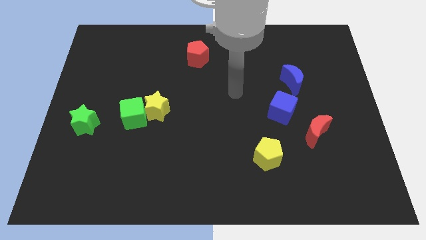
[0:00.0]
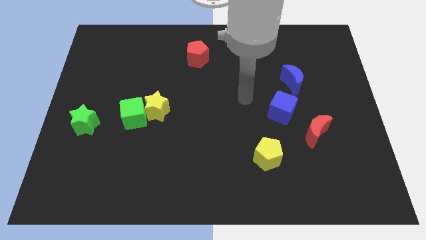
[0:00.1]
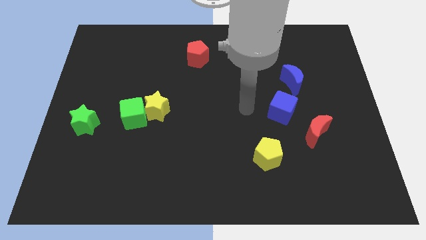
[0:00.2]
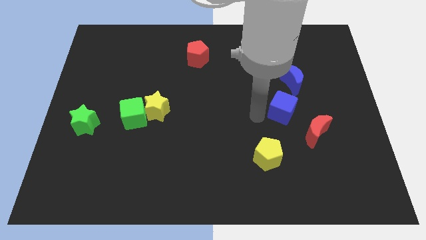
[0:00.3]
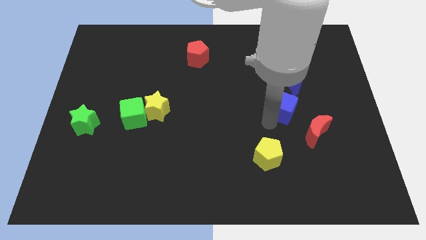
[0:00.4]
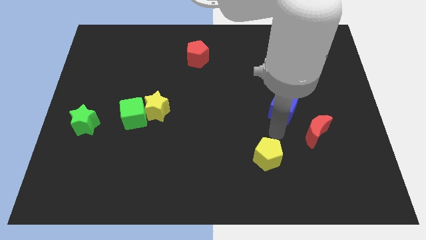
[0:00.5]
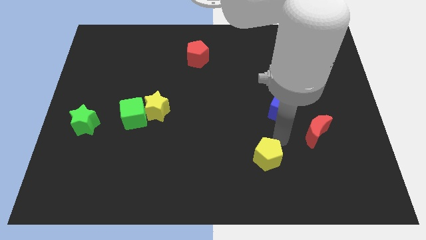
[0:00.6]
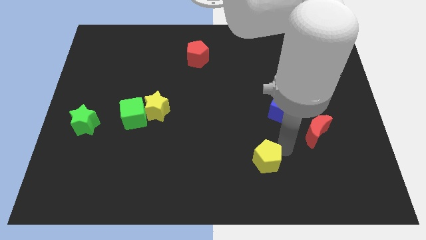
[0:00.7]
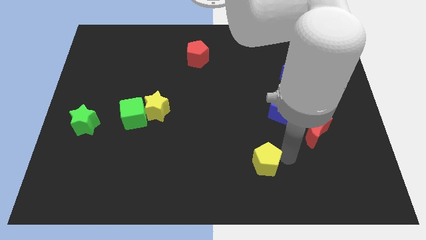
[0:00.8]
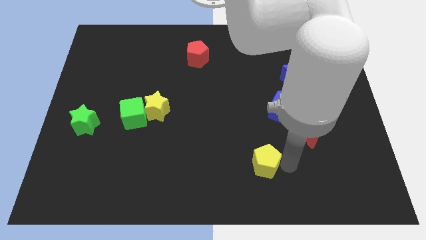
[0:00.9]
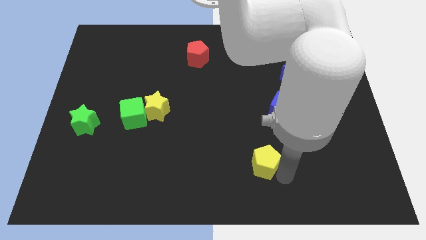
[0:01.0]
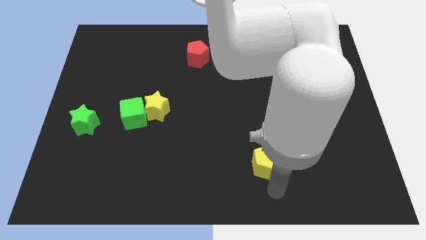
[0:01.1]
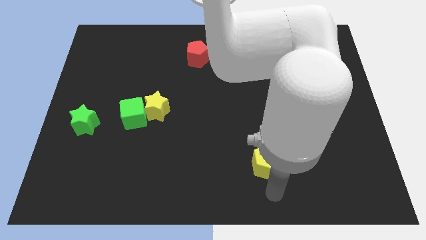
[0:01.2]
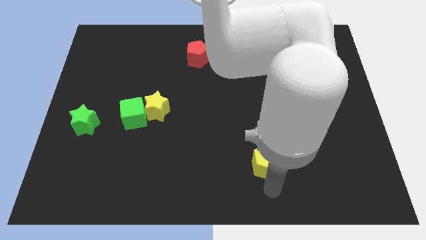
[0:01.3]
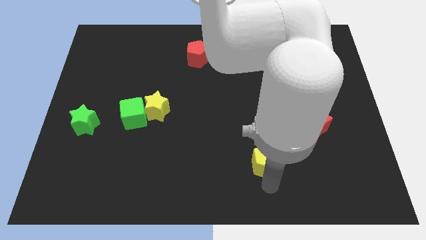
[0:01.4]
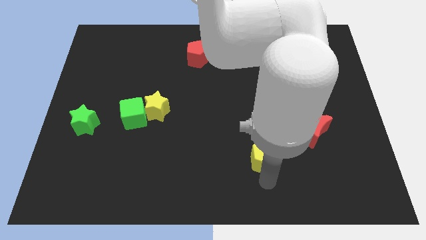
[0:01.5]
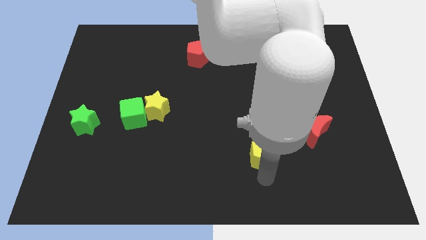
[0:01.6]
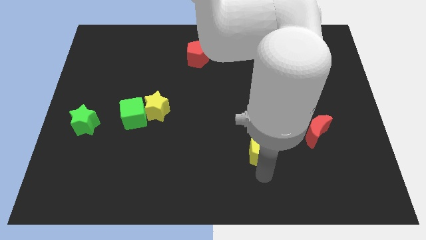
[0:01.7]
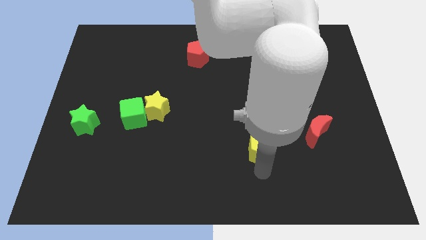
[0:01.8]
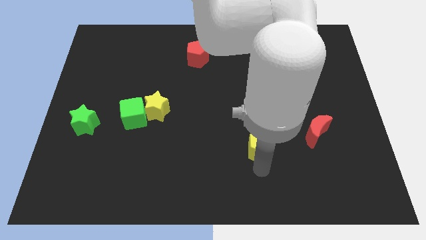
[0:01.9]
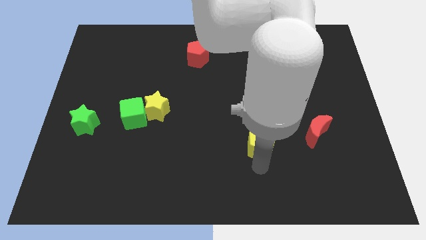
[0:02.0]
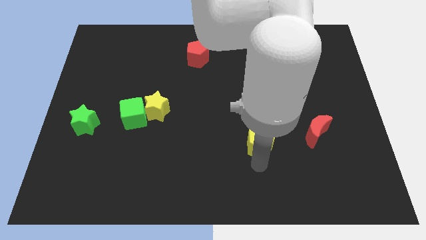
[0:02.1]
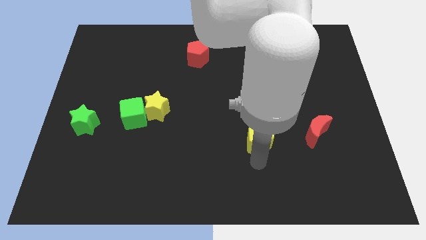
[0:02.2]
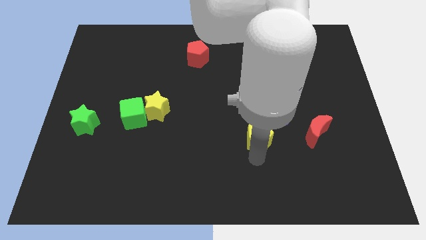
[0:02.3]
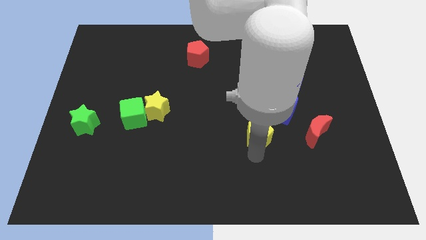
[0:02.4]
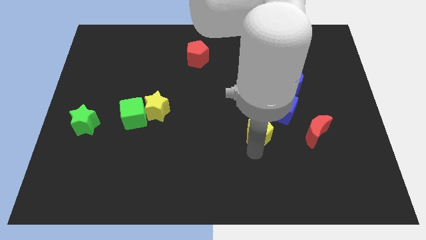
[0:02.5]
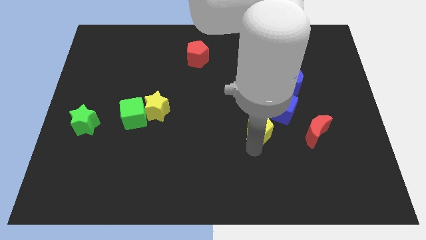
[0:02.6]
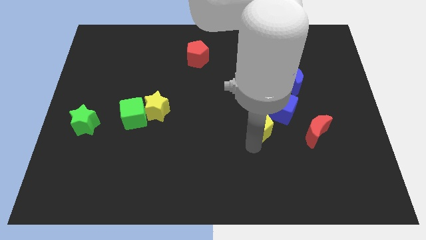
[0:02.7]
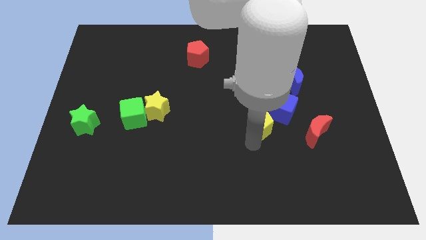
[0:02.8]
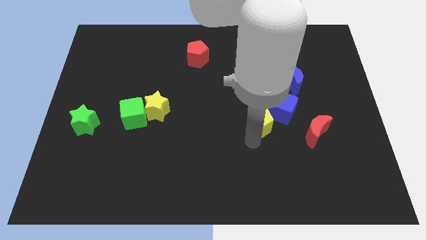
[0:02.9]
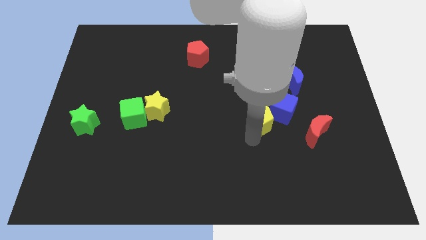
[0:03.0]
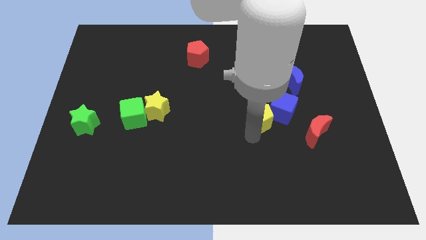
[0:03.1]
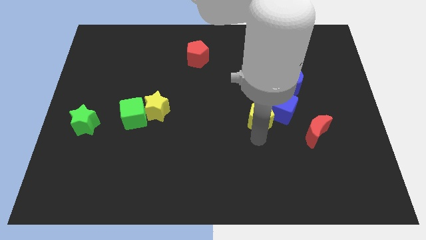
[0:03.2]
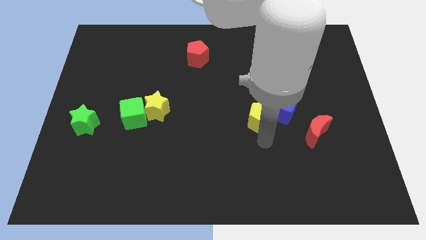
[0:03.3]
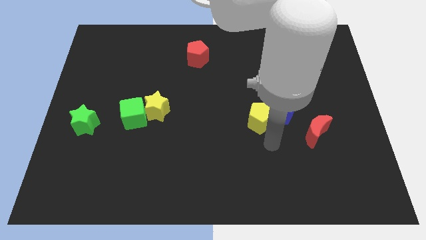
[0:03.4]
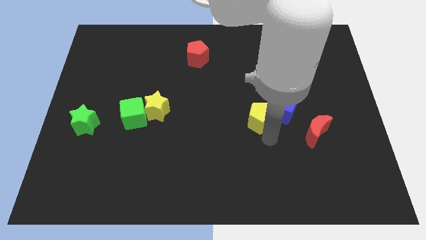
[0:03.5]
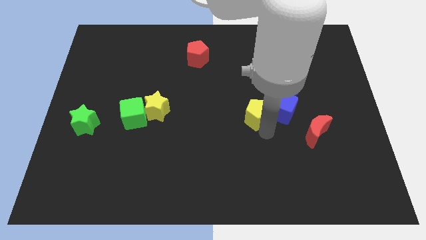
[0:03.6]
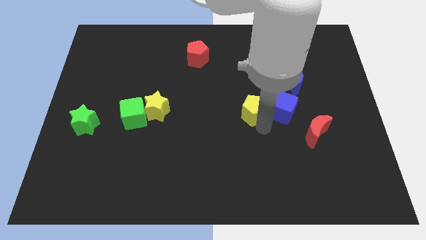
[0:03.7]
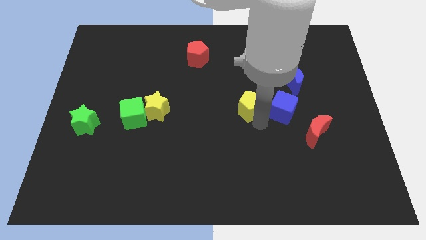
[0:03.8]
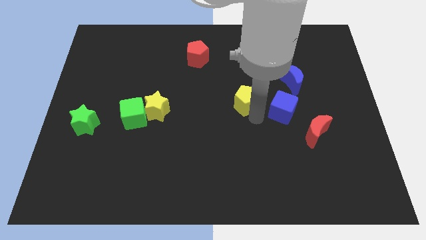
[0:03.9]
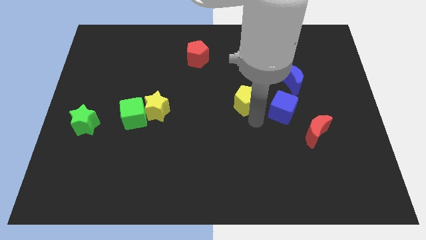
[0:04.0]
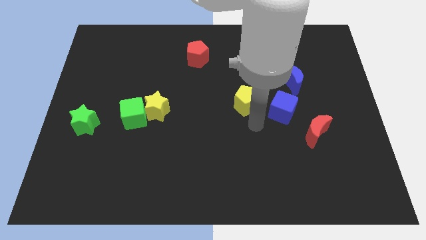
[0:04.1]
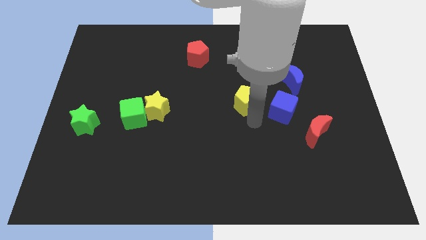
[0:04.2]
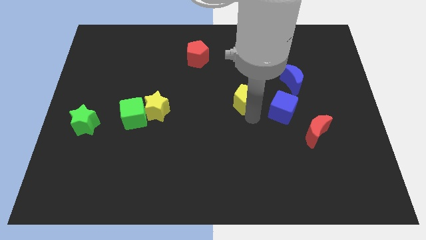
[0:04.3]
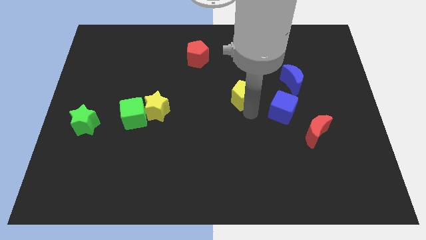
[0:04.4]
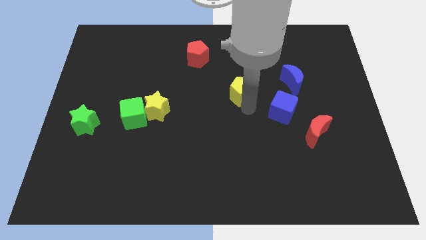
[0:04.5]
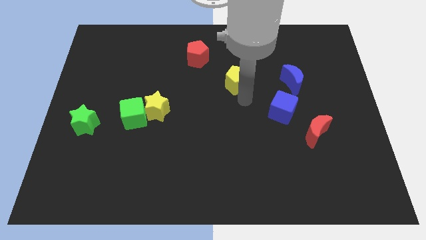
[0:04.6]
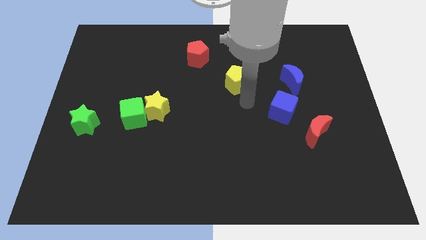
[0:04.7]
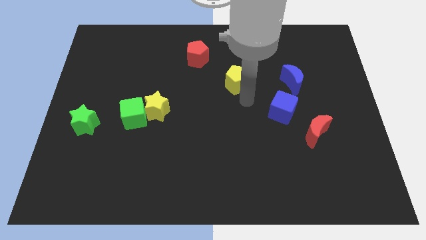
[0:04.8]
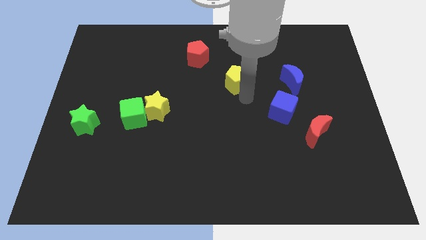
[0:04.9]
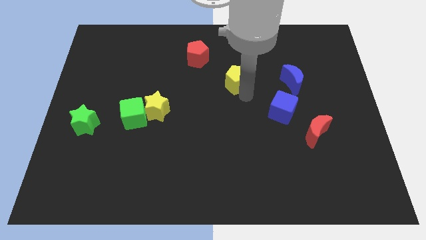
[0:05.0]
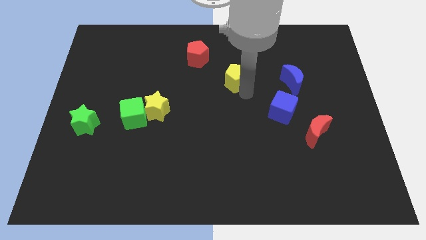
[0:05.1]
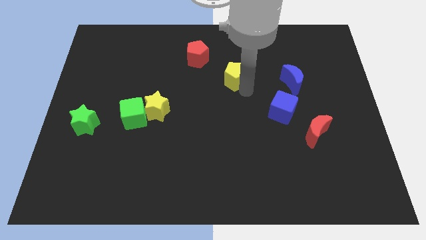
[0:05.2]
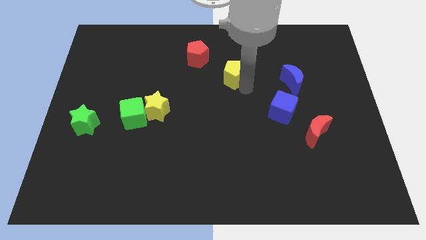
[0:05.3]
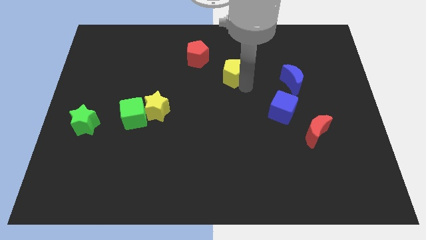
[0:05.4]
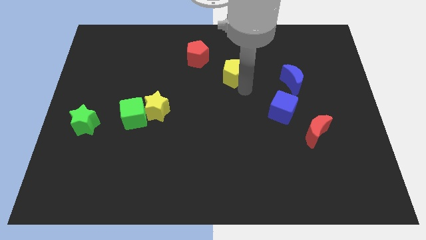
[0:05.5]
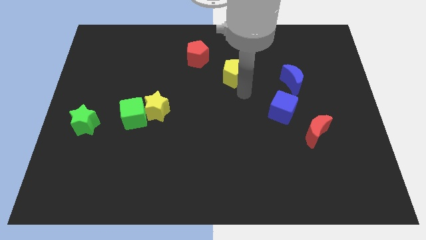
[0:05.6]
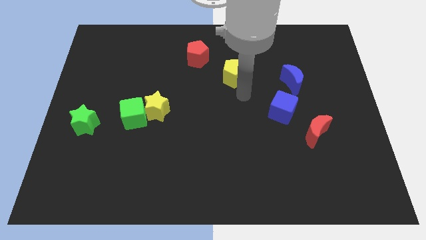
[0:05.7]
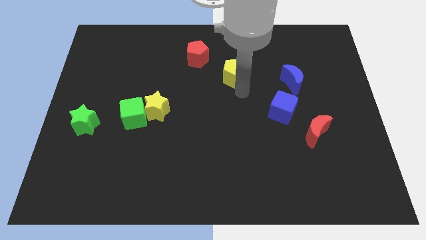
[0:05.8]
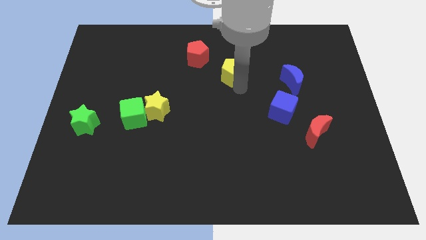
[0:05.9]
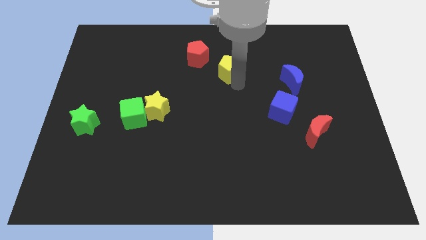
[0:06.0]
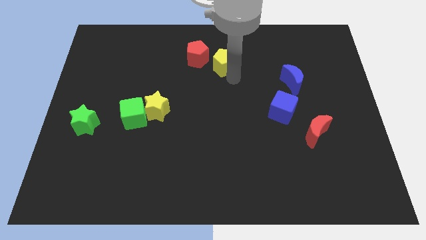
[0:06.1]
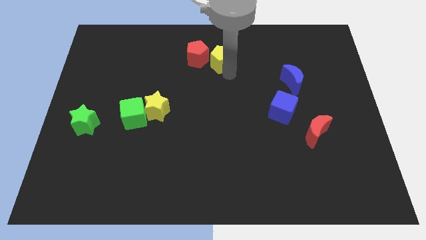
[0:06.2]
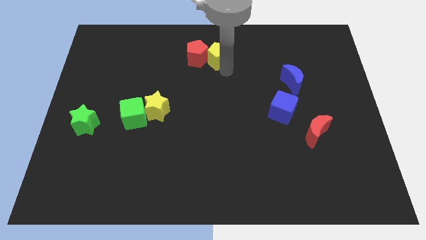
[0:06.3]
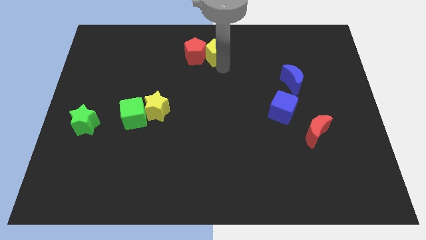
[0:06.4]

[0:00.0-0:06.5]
push the yellow pentagon to the top side

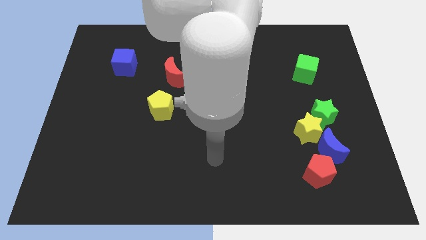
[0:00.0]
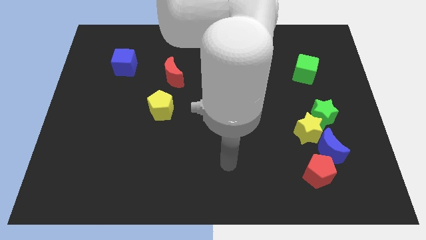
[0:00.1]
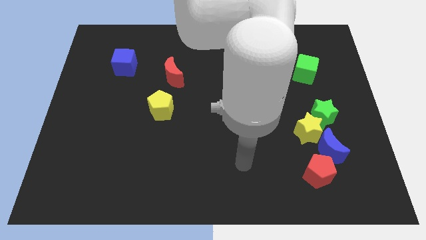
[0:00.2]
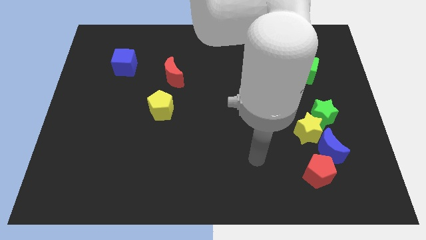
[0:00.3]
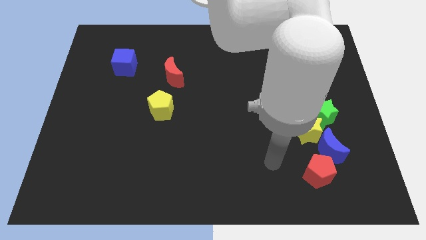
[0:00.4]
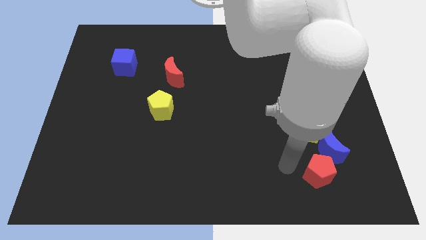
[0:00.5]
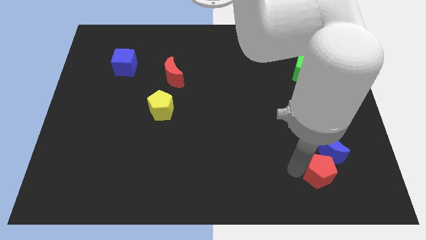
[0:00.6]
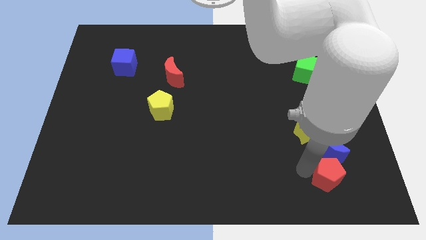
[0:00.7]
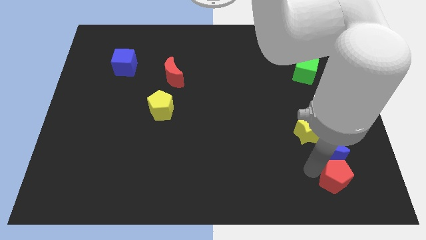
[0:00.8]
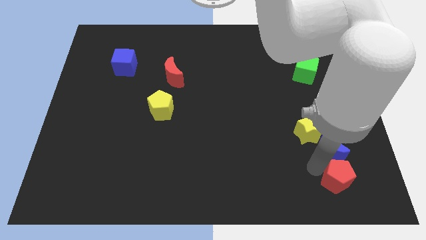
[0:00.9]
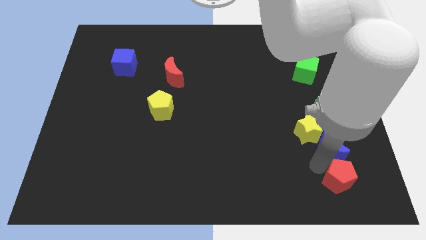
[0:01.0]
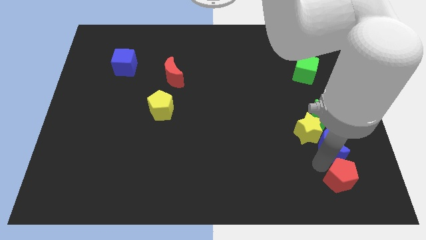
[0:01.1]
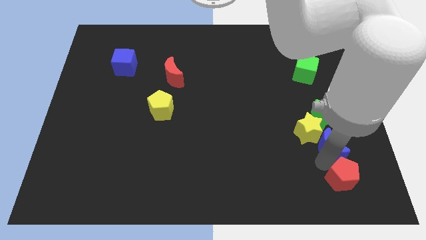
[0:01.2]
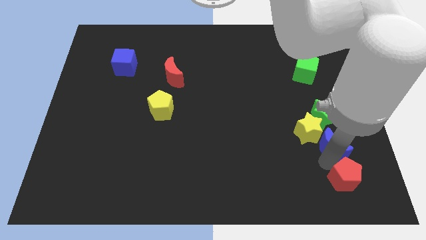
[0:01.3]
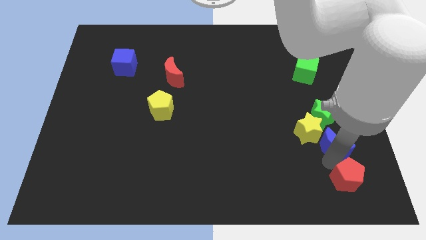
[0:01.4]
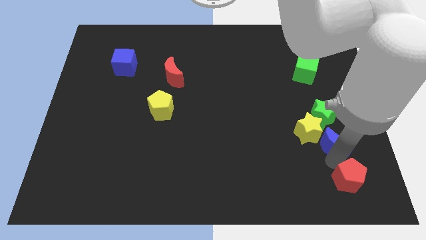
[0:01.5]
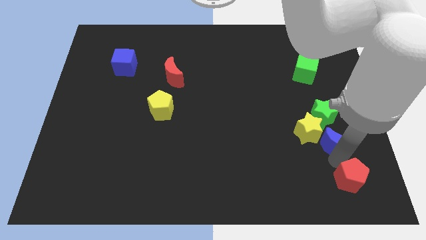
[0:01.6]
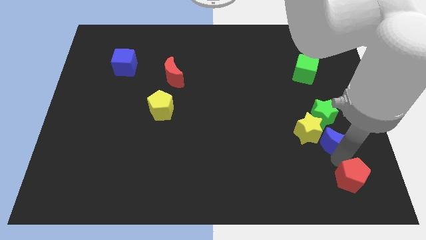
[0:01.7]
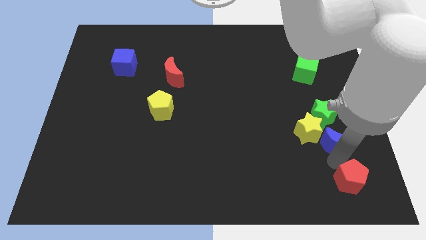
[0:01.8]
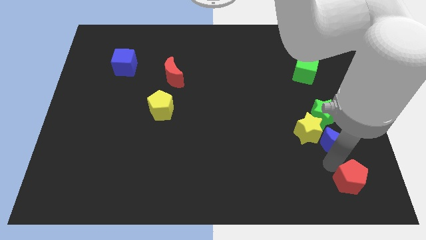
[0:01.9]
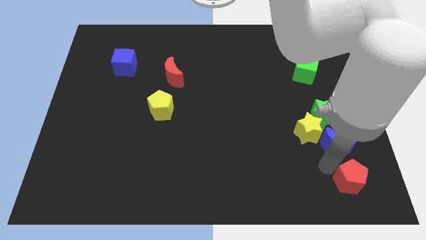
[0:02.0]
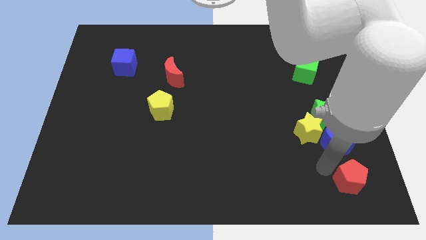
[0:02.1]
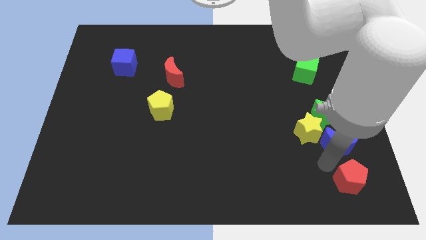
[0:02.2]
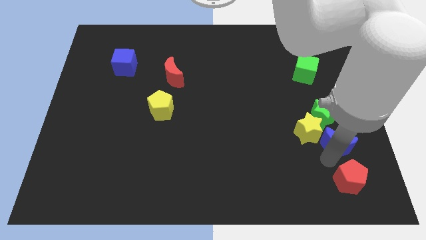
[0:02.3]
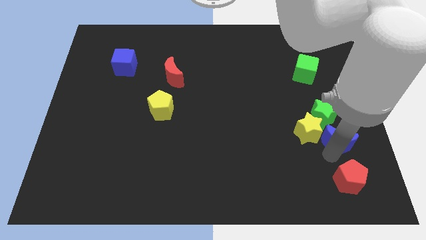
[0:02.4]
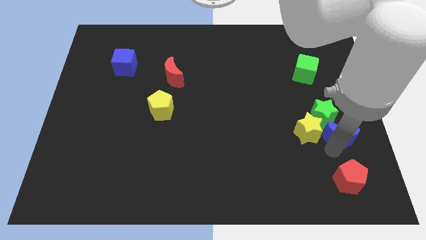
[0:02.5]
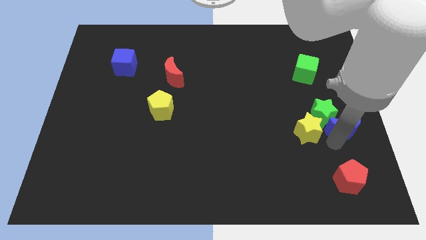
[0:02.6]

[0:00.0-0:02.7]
push the blue moon to the center right
